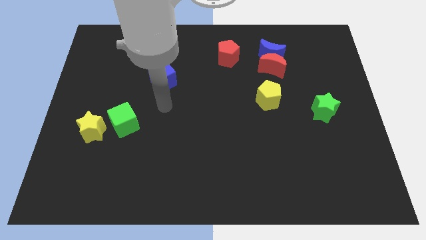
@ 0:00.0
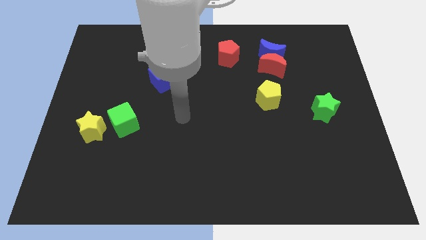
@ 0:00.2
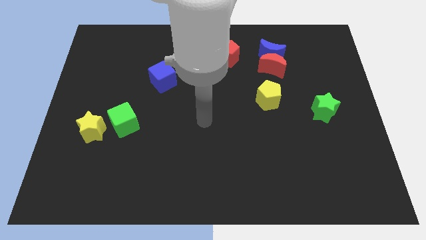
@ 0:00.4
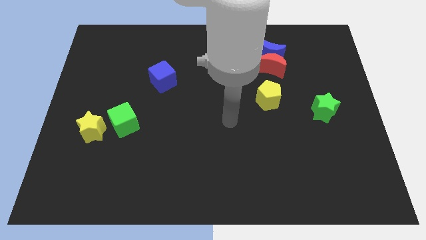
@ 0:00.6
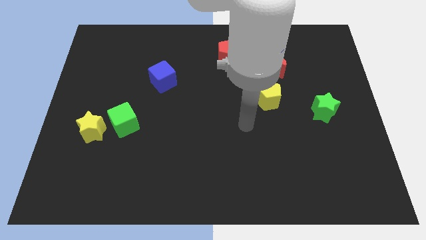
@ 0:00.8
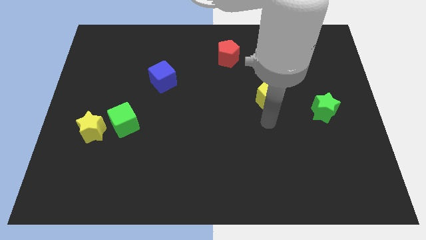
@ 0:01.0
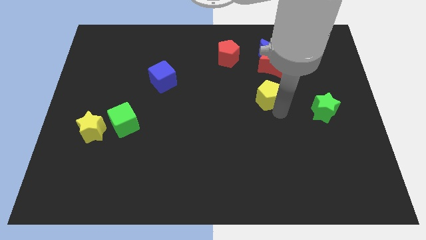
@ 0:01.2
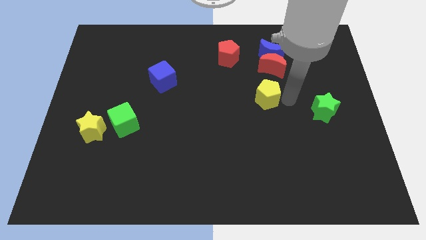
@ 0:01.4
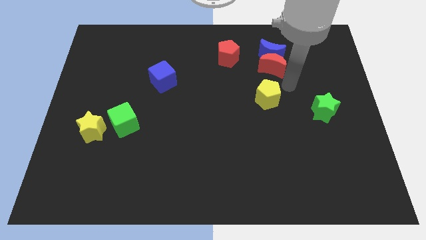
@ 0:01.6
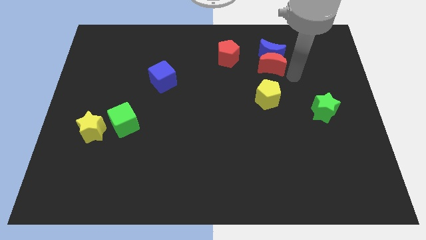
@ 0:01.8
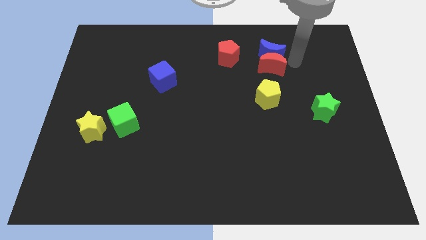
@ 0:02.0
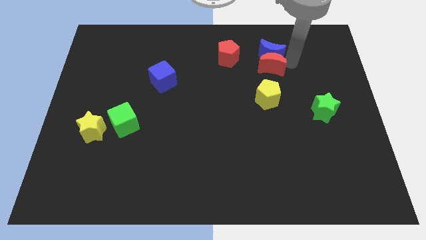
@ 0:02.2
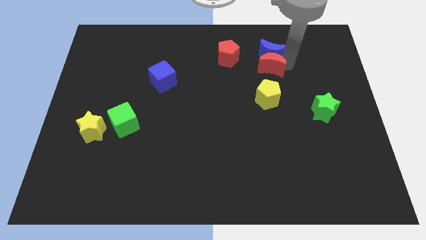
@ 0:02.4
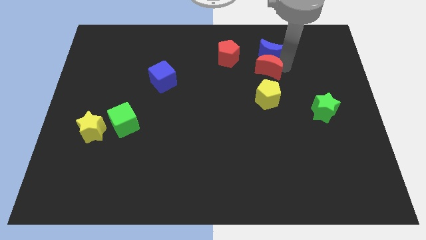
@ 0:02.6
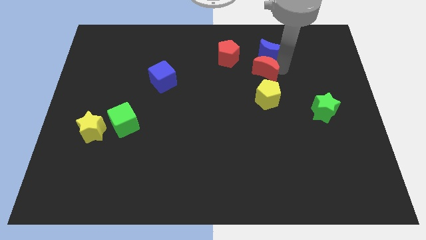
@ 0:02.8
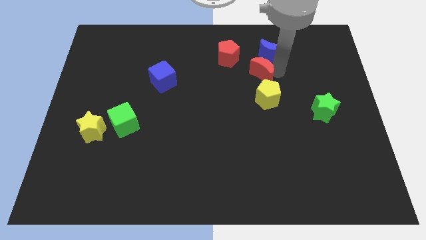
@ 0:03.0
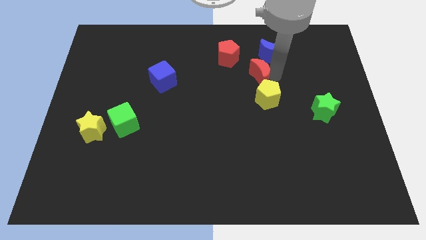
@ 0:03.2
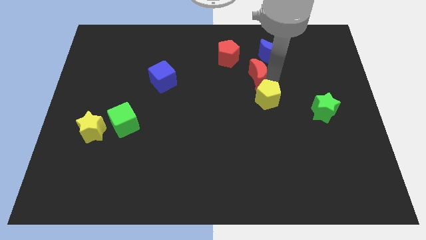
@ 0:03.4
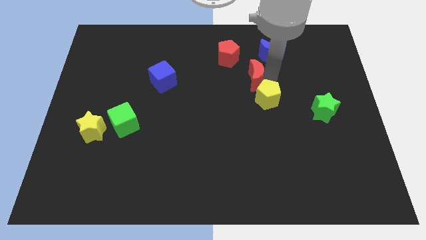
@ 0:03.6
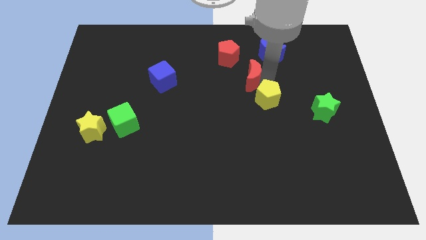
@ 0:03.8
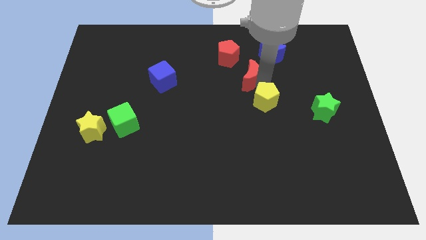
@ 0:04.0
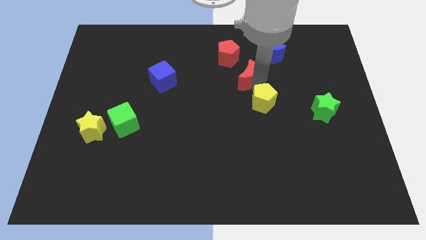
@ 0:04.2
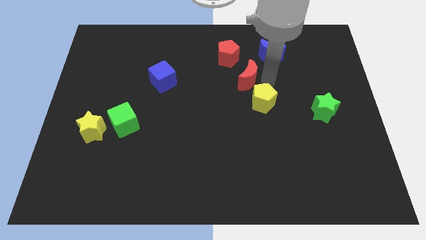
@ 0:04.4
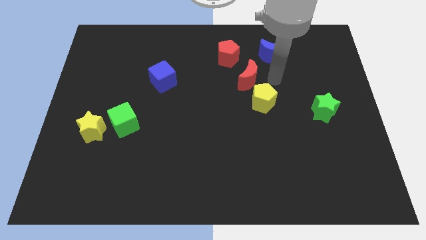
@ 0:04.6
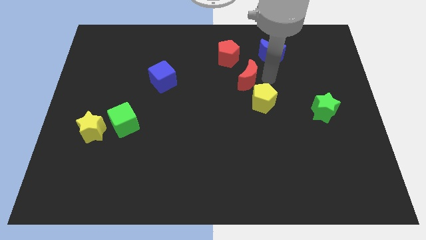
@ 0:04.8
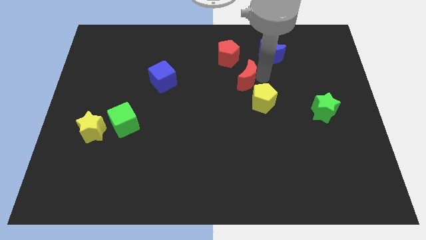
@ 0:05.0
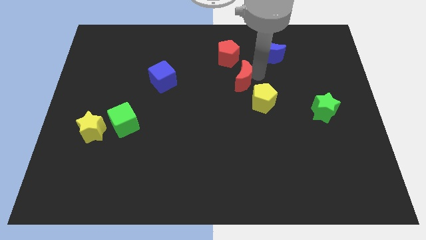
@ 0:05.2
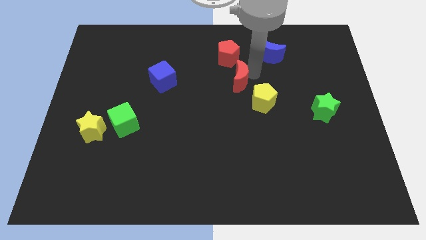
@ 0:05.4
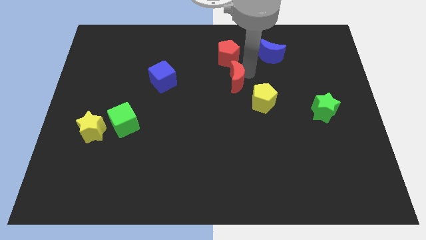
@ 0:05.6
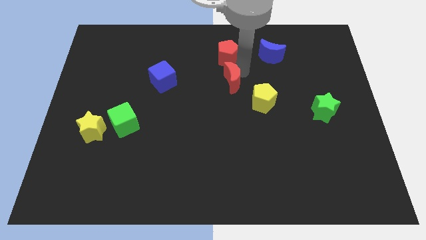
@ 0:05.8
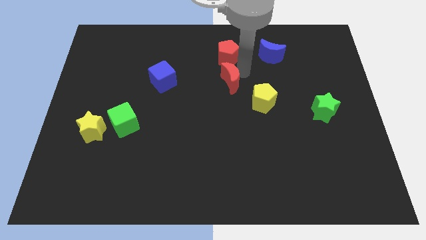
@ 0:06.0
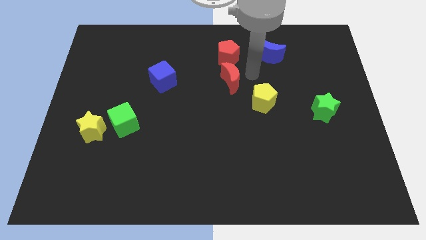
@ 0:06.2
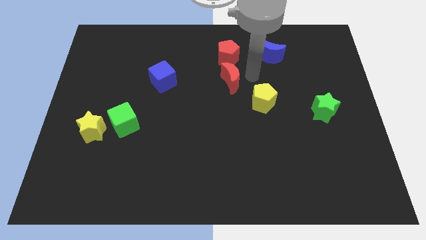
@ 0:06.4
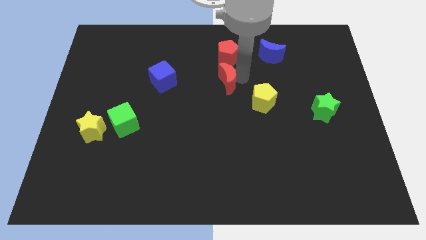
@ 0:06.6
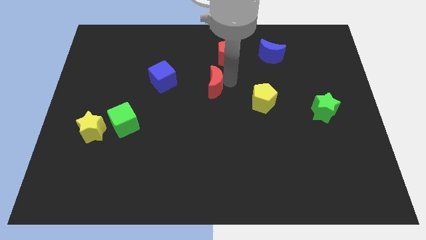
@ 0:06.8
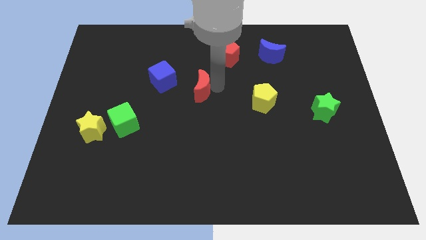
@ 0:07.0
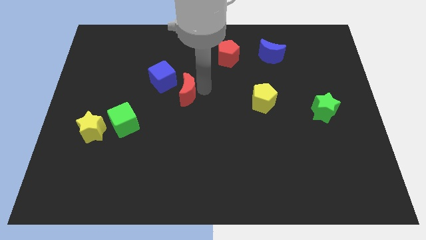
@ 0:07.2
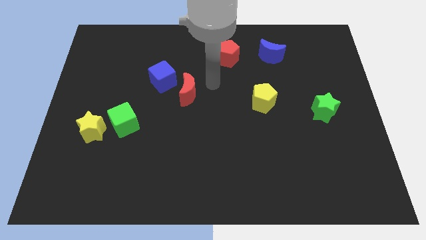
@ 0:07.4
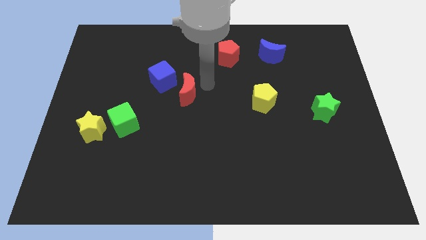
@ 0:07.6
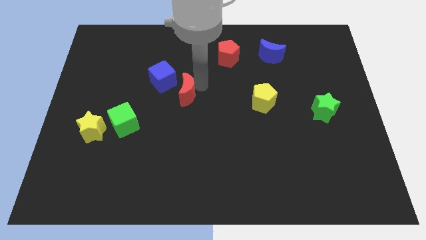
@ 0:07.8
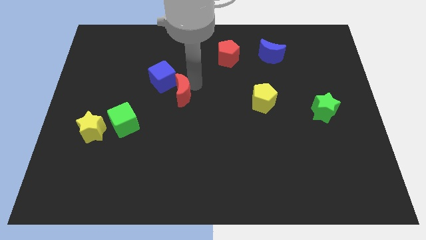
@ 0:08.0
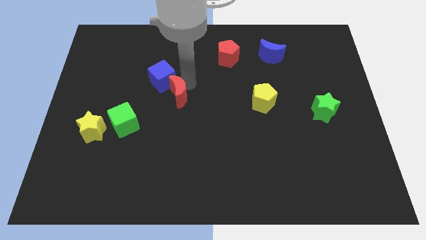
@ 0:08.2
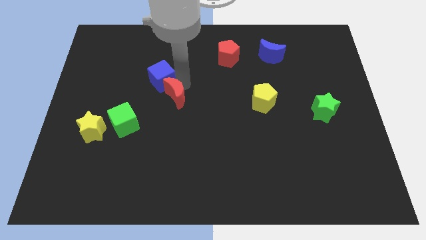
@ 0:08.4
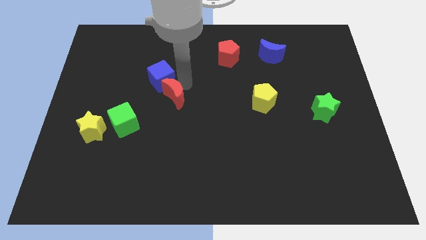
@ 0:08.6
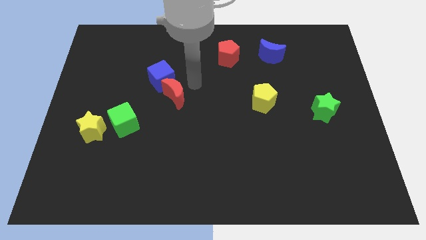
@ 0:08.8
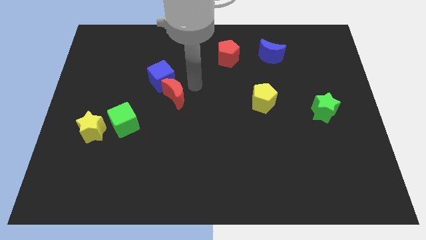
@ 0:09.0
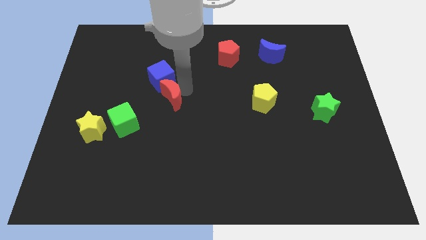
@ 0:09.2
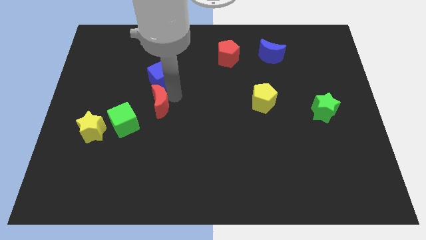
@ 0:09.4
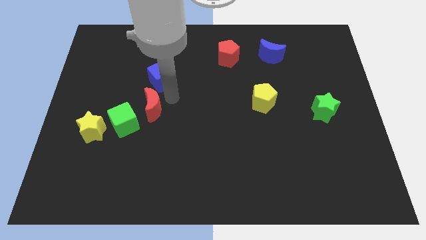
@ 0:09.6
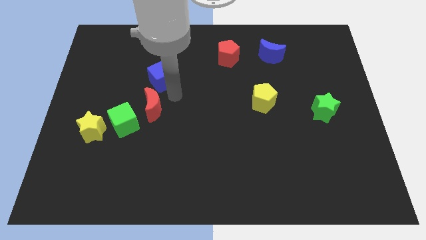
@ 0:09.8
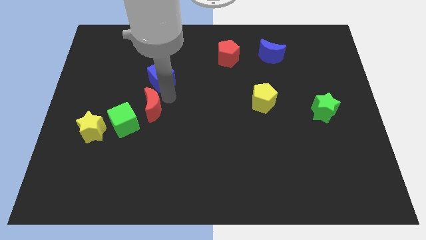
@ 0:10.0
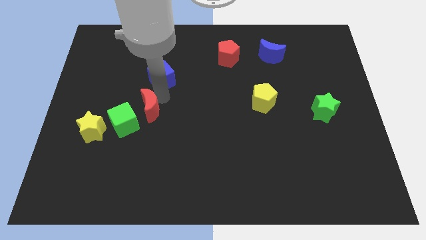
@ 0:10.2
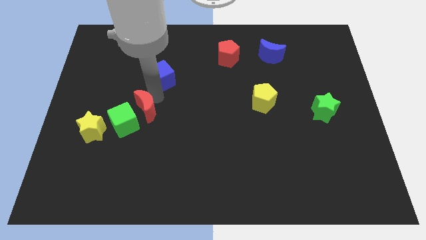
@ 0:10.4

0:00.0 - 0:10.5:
move the red moon close to the green cube

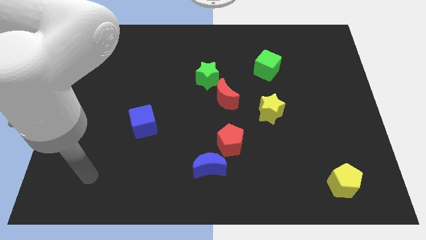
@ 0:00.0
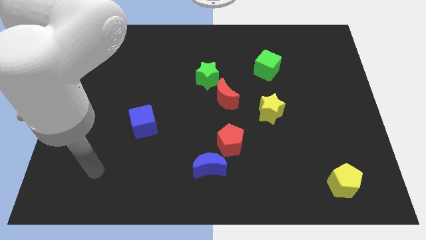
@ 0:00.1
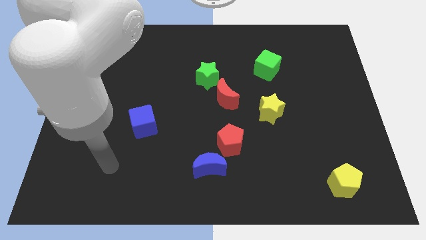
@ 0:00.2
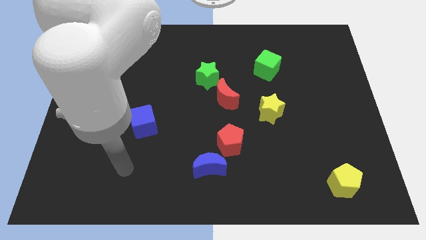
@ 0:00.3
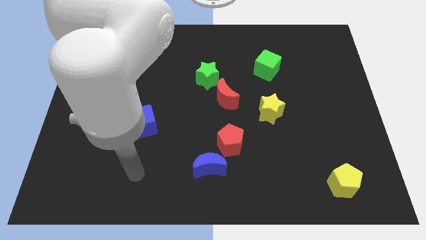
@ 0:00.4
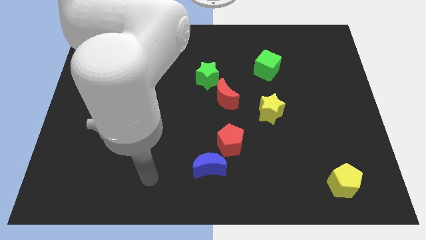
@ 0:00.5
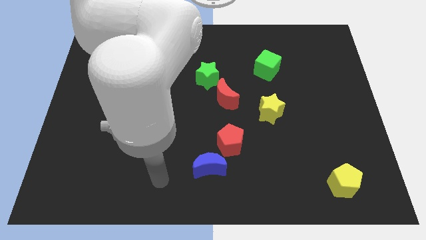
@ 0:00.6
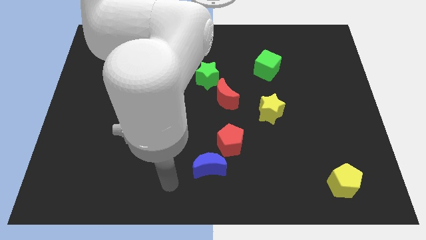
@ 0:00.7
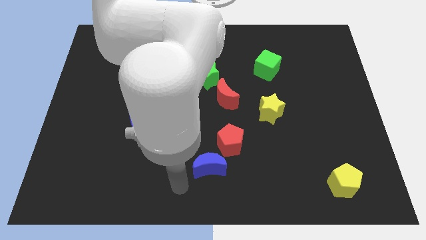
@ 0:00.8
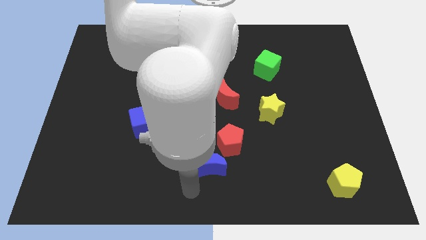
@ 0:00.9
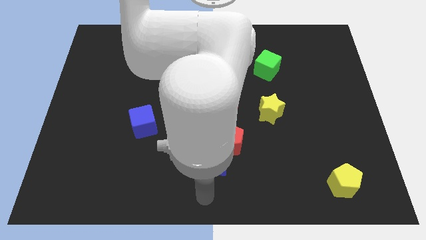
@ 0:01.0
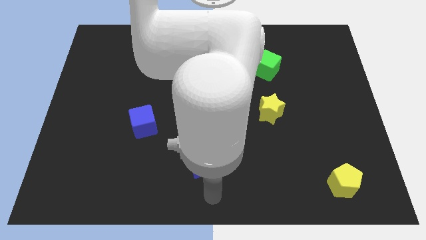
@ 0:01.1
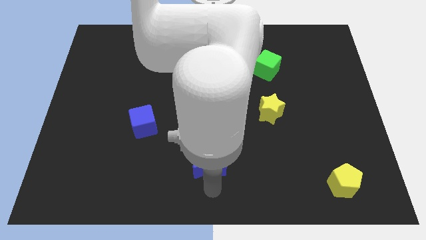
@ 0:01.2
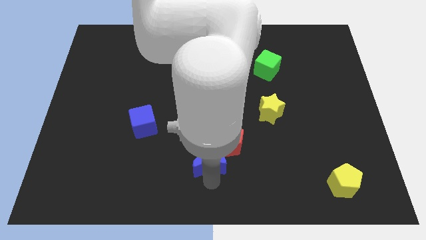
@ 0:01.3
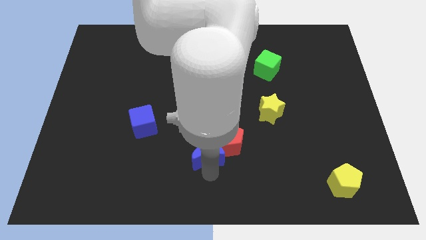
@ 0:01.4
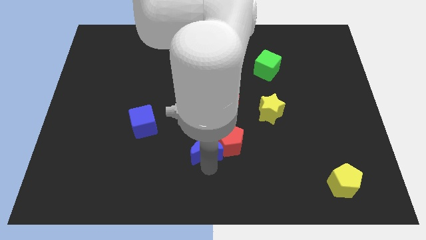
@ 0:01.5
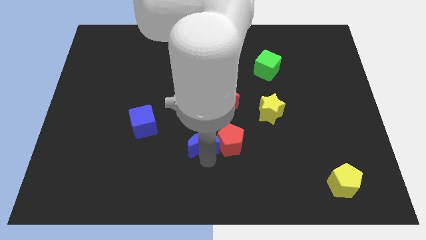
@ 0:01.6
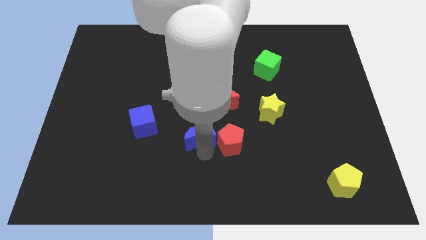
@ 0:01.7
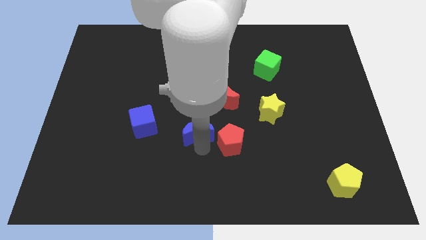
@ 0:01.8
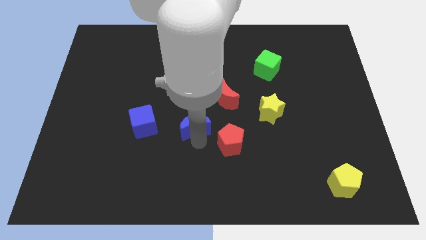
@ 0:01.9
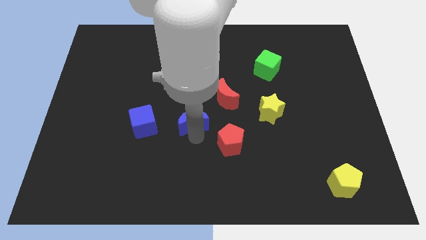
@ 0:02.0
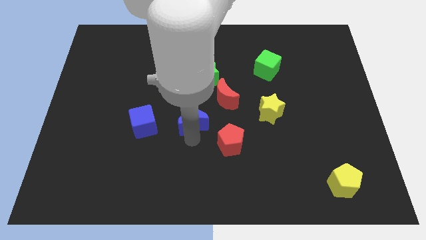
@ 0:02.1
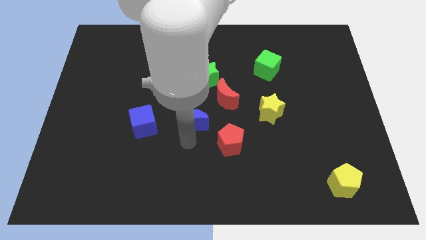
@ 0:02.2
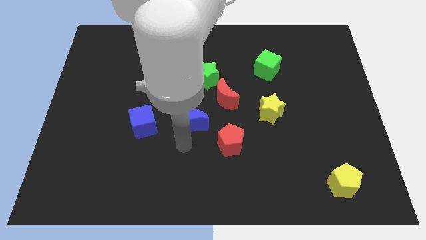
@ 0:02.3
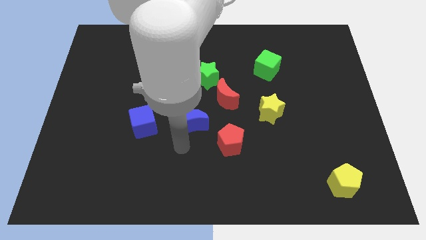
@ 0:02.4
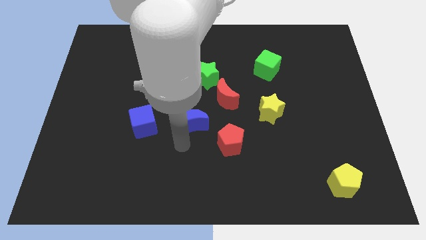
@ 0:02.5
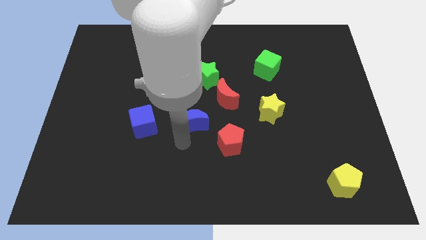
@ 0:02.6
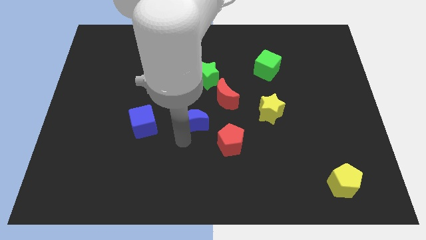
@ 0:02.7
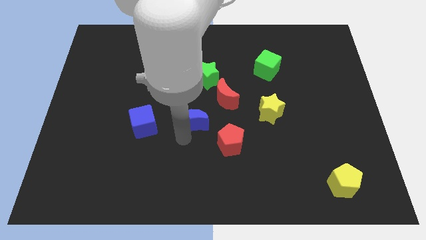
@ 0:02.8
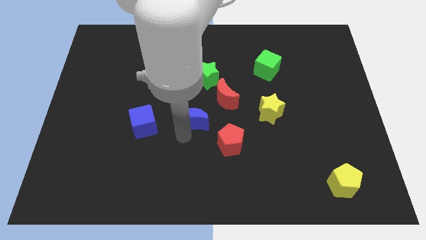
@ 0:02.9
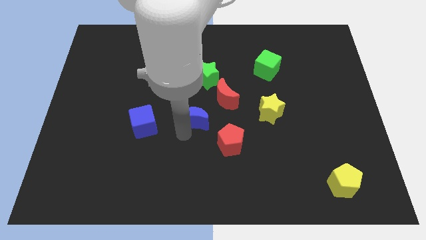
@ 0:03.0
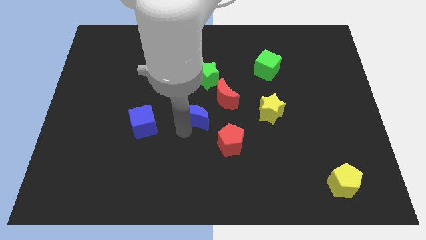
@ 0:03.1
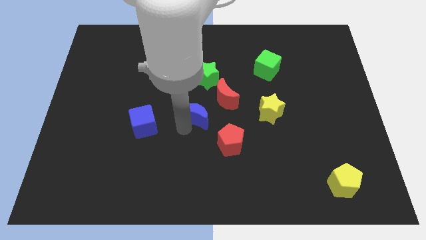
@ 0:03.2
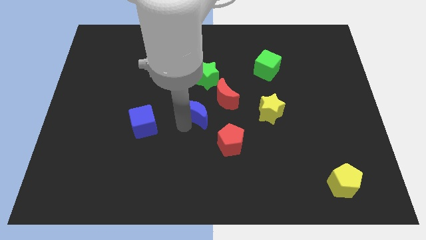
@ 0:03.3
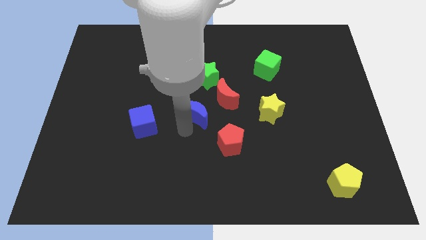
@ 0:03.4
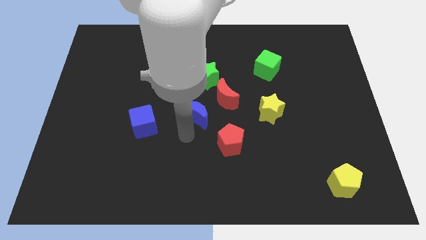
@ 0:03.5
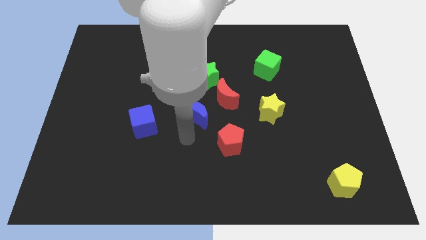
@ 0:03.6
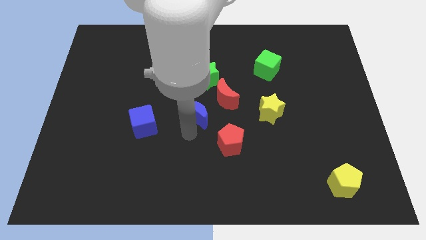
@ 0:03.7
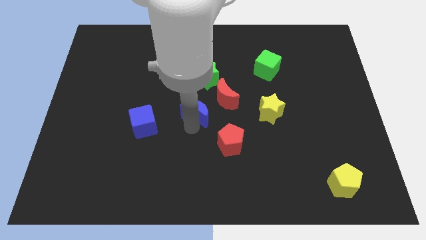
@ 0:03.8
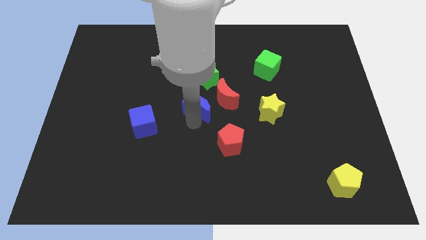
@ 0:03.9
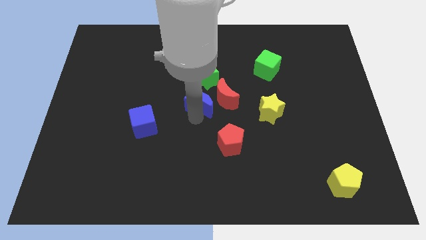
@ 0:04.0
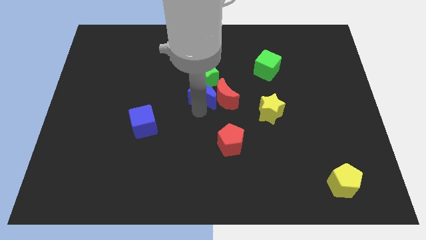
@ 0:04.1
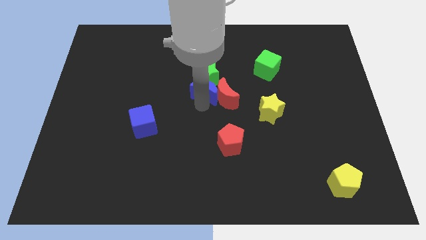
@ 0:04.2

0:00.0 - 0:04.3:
move the blue moon close to the green star
